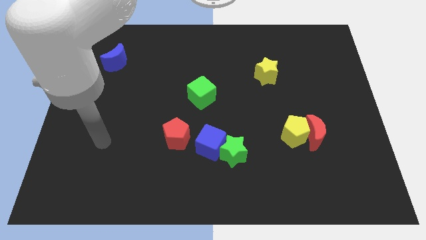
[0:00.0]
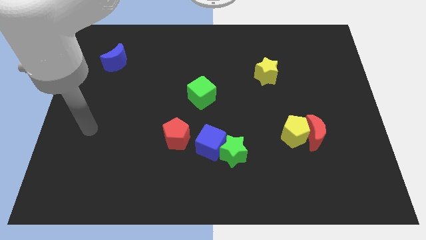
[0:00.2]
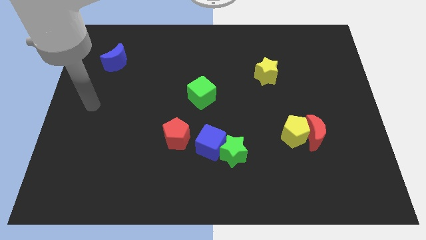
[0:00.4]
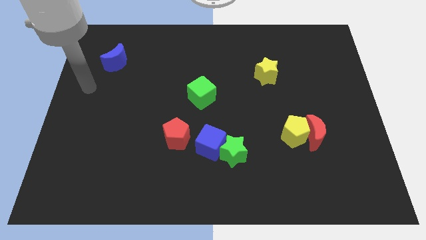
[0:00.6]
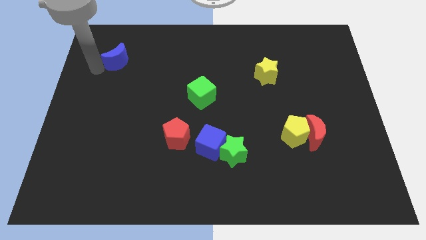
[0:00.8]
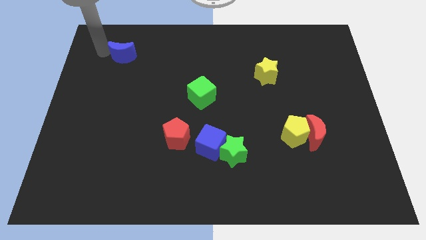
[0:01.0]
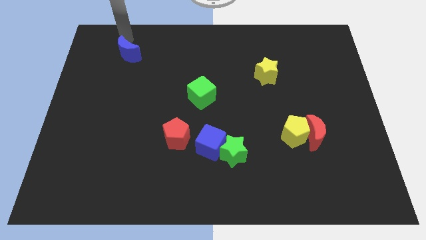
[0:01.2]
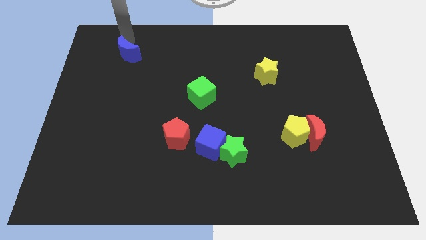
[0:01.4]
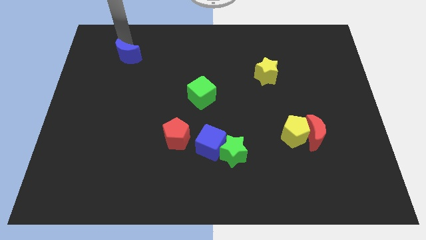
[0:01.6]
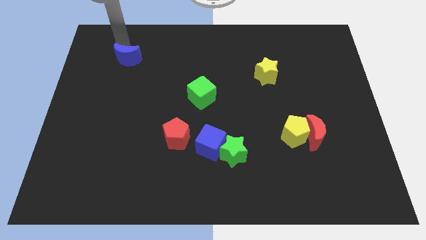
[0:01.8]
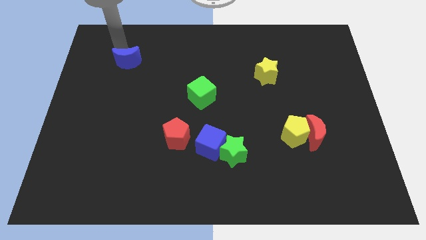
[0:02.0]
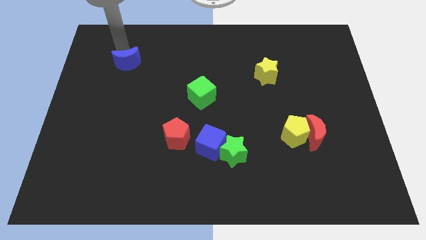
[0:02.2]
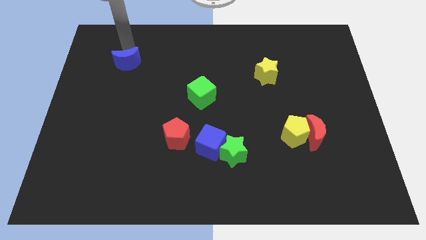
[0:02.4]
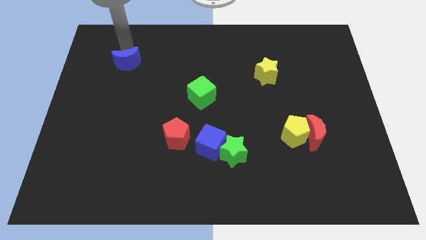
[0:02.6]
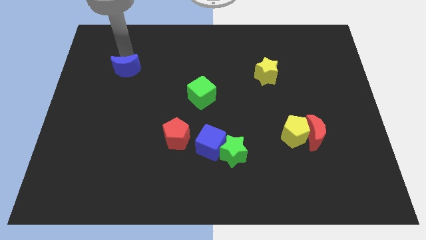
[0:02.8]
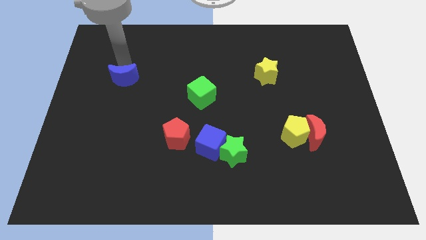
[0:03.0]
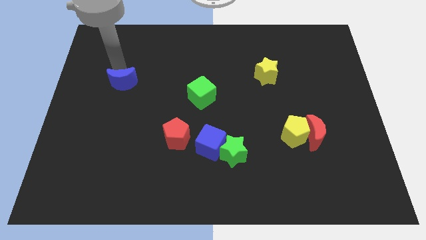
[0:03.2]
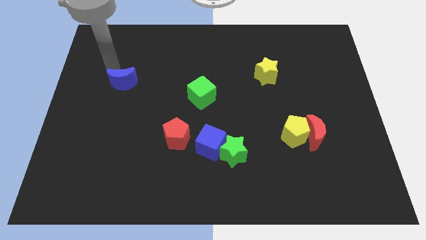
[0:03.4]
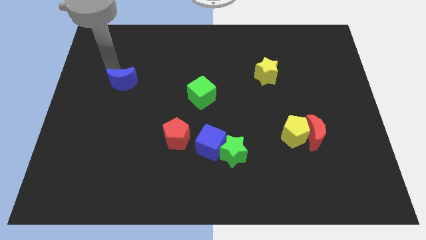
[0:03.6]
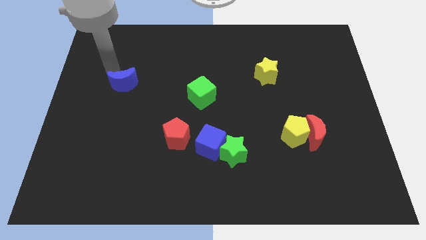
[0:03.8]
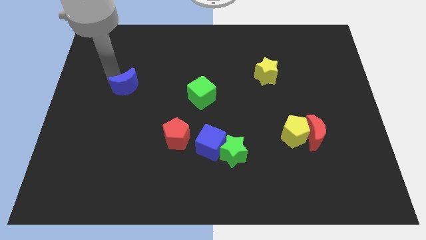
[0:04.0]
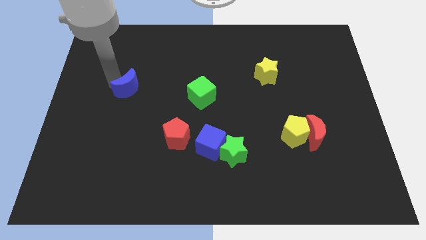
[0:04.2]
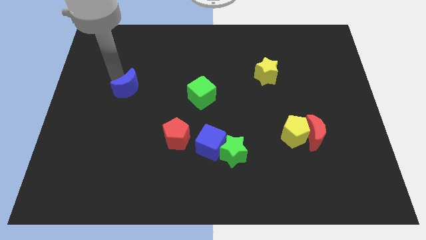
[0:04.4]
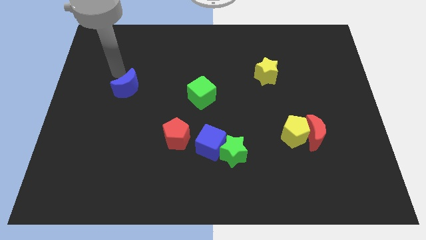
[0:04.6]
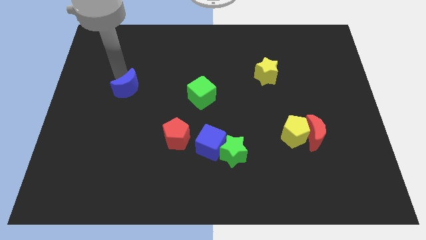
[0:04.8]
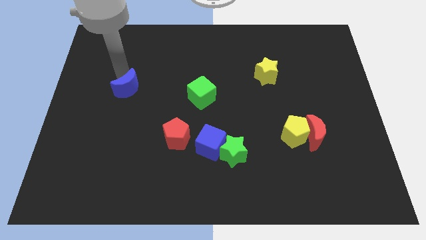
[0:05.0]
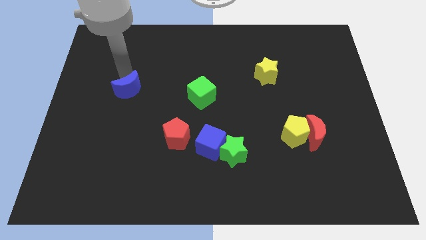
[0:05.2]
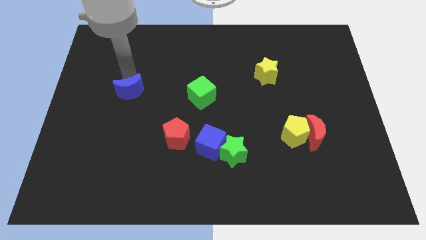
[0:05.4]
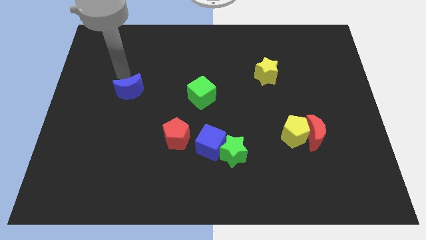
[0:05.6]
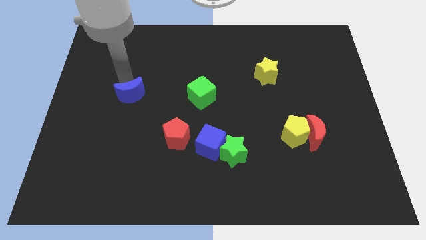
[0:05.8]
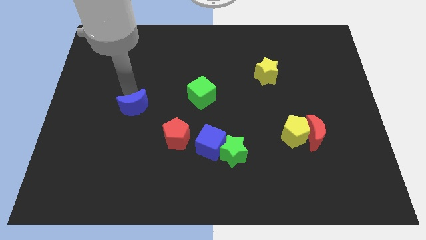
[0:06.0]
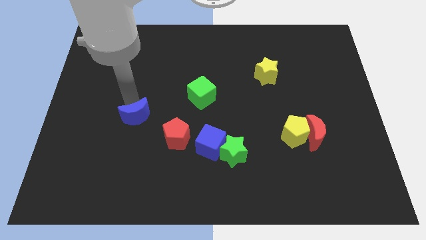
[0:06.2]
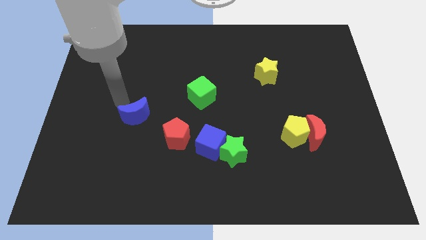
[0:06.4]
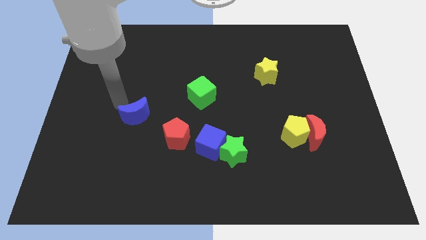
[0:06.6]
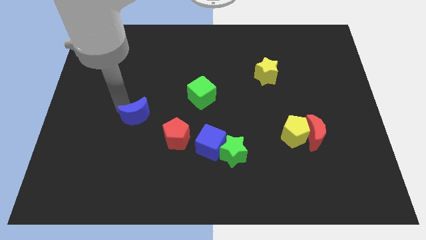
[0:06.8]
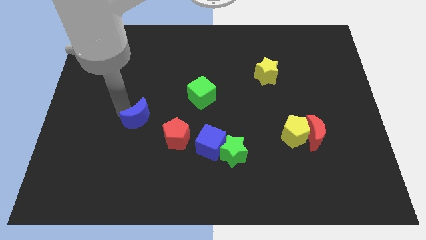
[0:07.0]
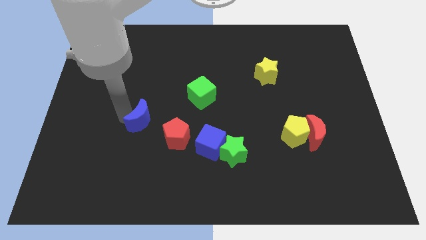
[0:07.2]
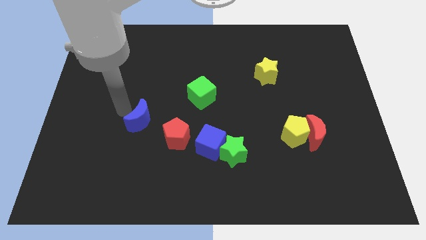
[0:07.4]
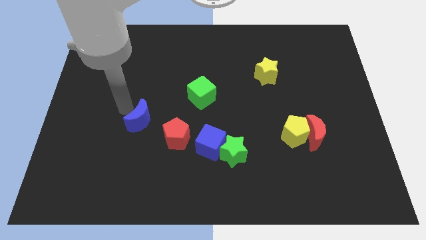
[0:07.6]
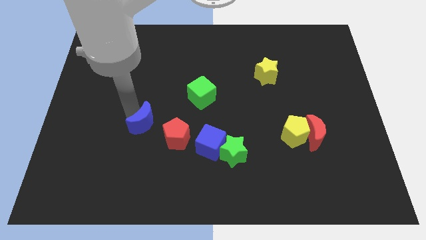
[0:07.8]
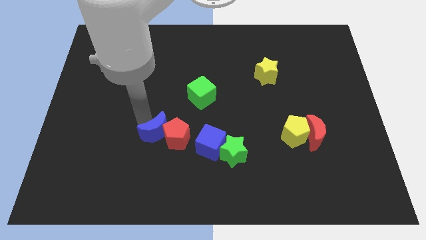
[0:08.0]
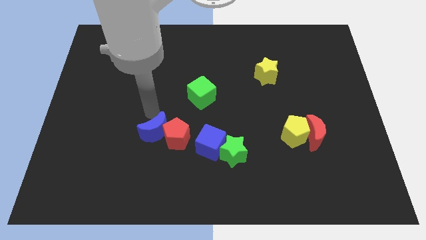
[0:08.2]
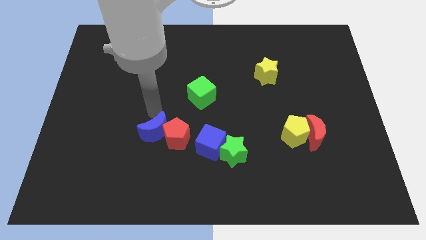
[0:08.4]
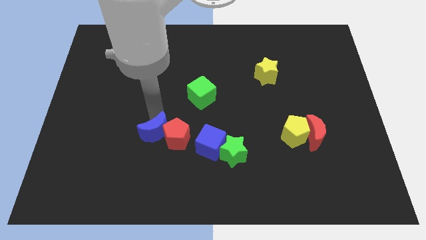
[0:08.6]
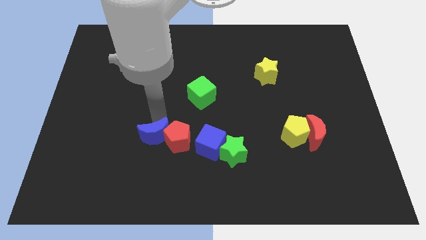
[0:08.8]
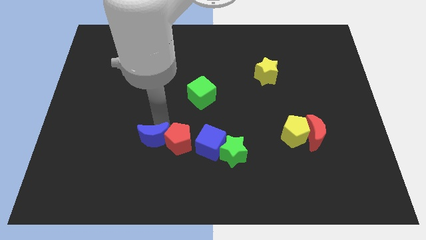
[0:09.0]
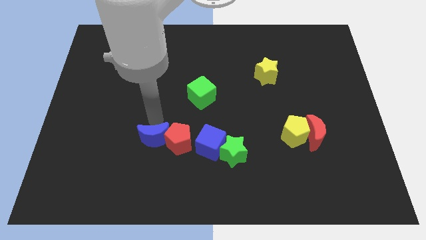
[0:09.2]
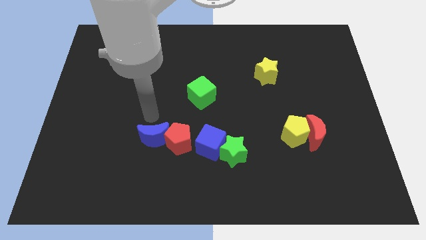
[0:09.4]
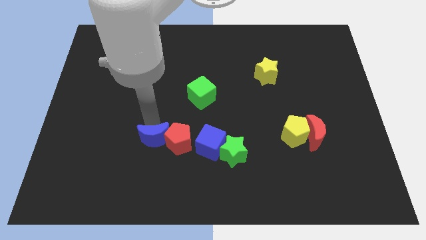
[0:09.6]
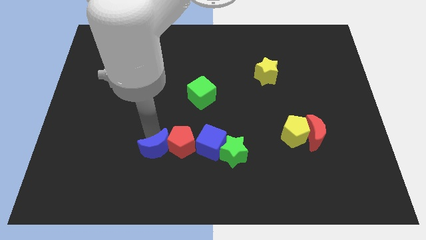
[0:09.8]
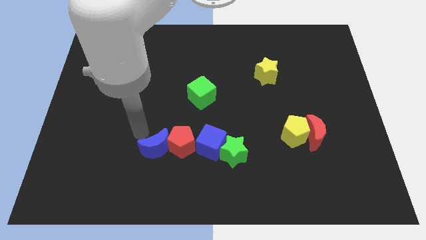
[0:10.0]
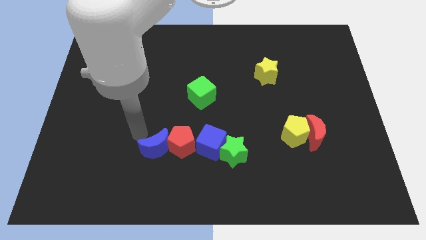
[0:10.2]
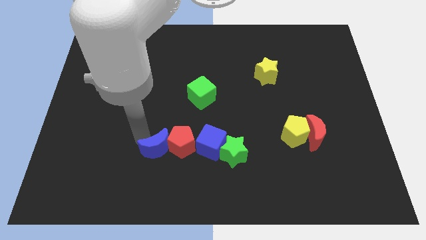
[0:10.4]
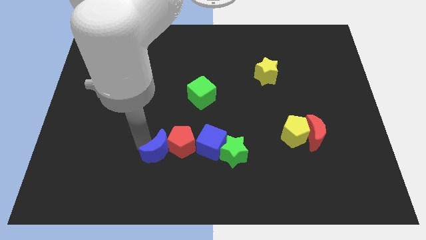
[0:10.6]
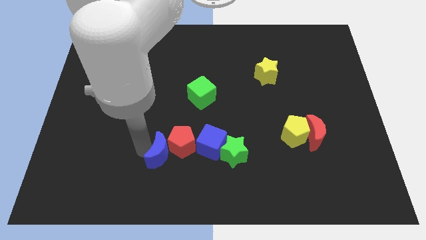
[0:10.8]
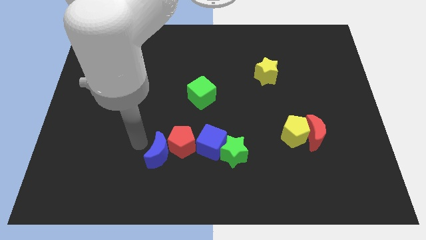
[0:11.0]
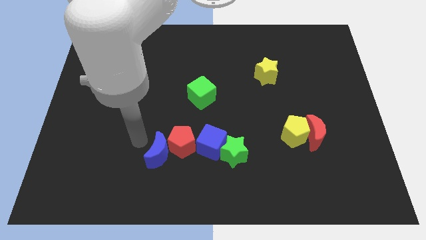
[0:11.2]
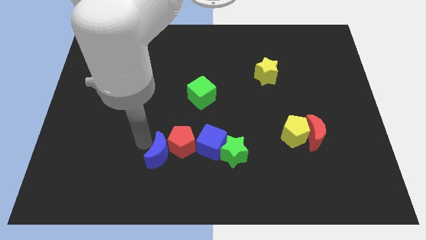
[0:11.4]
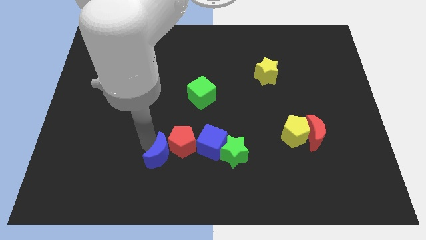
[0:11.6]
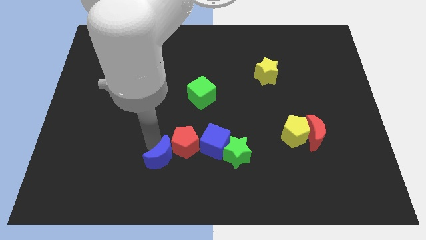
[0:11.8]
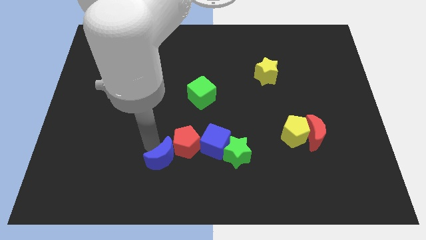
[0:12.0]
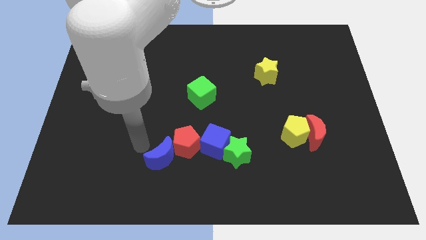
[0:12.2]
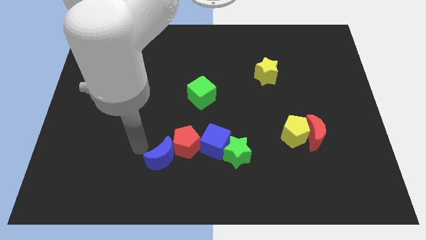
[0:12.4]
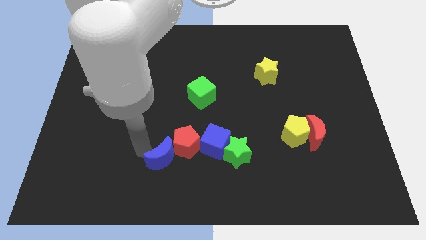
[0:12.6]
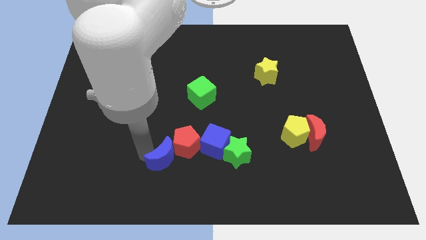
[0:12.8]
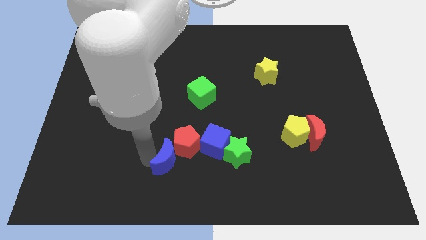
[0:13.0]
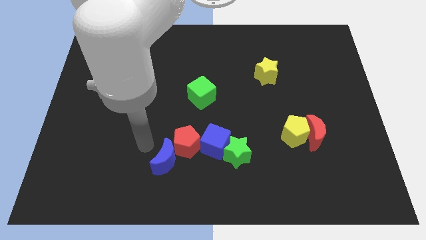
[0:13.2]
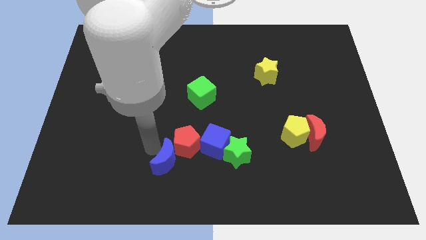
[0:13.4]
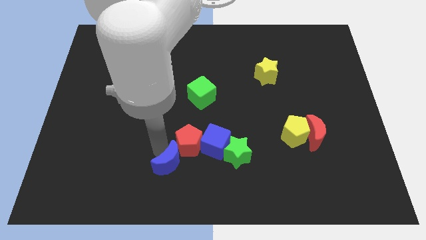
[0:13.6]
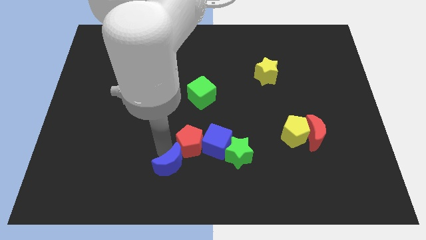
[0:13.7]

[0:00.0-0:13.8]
slide the blue moon to the bottom side
